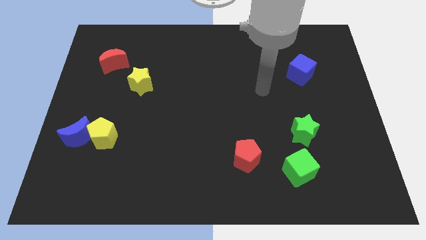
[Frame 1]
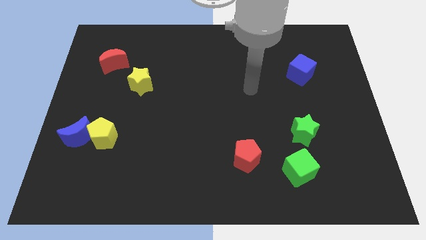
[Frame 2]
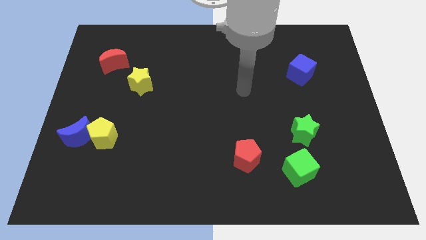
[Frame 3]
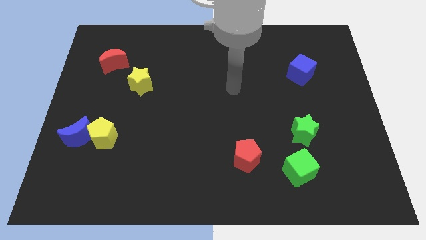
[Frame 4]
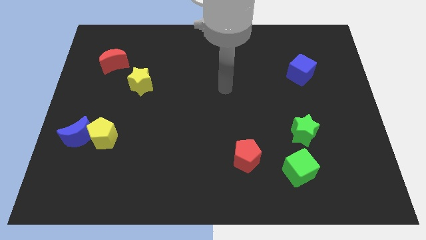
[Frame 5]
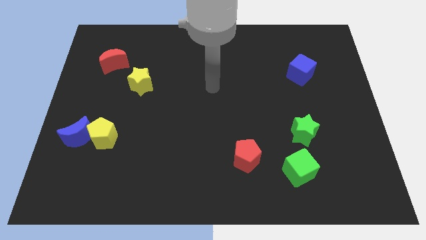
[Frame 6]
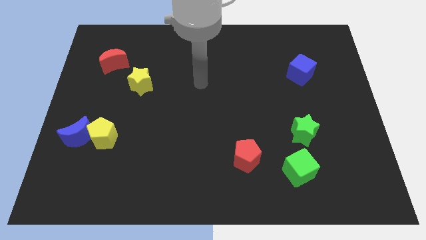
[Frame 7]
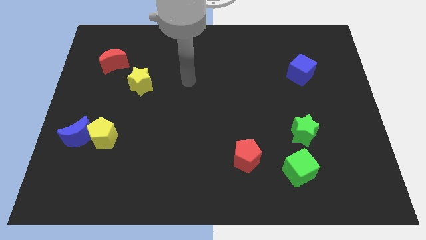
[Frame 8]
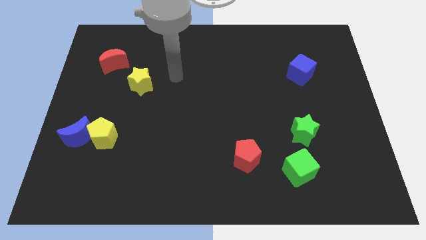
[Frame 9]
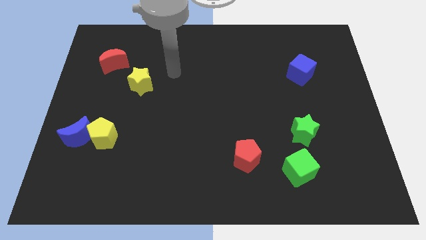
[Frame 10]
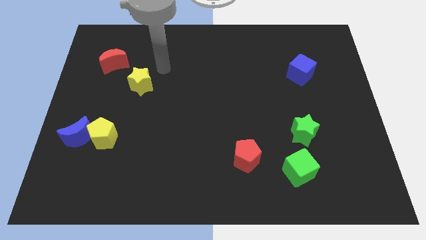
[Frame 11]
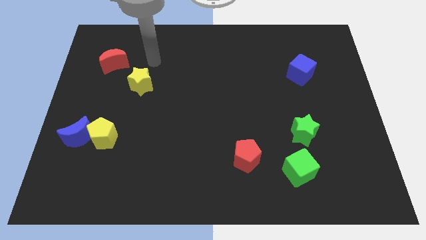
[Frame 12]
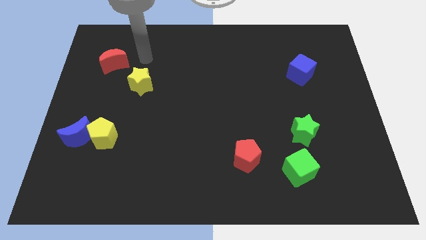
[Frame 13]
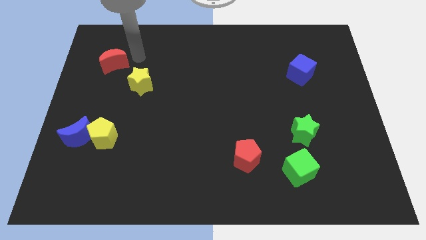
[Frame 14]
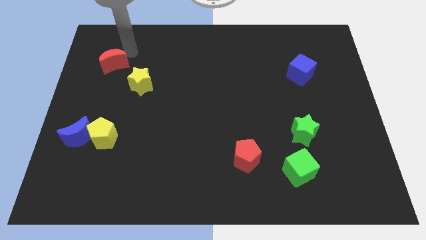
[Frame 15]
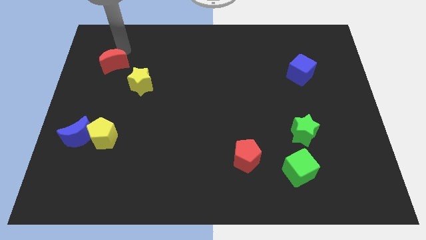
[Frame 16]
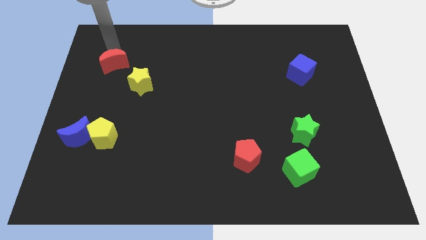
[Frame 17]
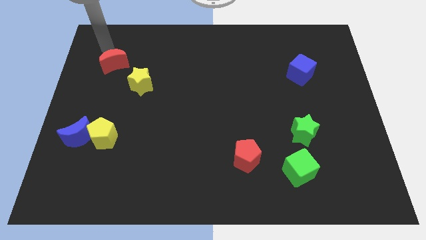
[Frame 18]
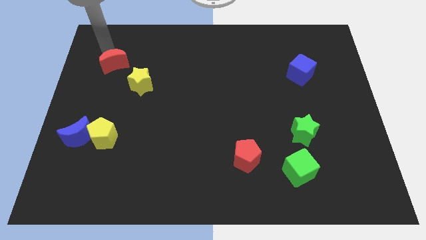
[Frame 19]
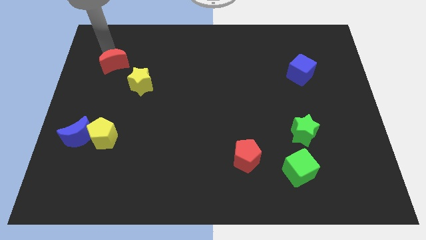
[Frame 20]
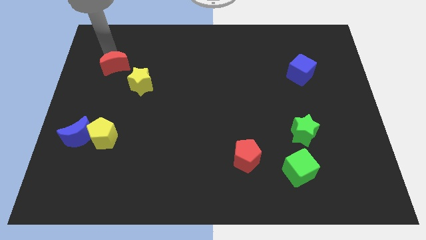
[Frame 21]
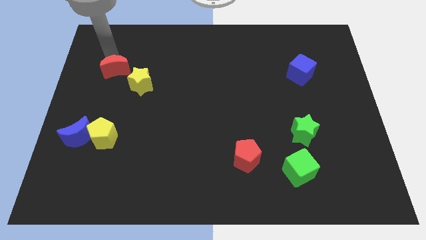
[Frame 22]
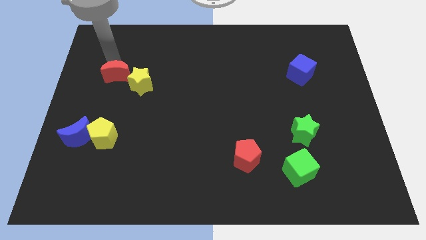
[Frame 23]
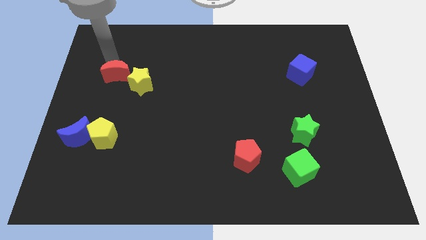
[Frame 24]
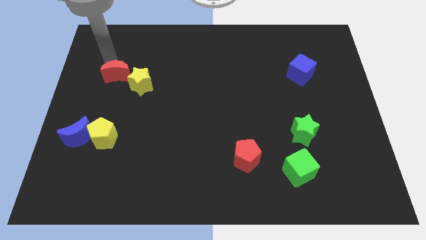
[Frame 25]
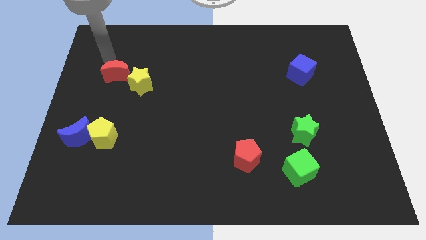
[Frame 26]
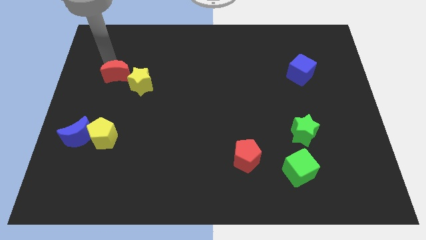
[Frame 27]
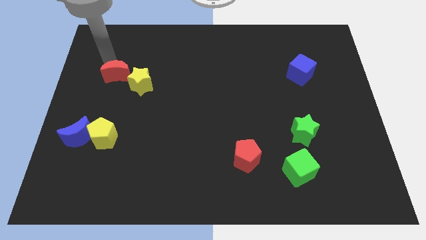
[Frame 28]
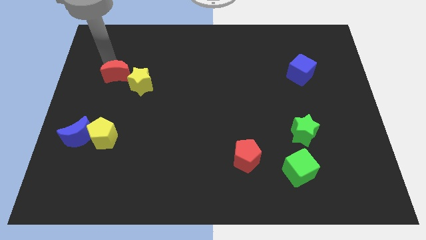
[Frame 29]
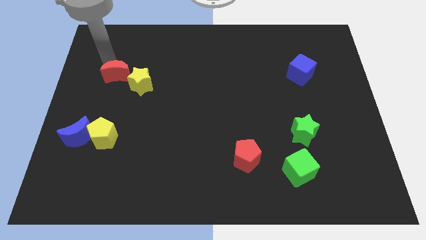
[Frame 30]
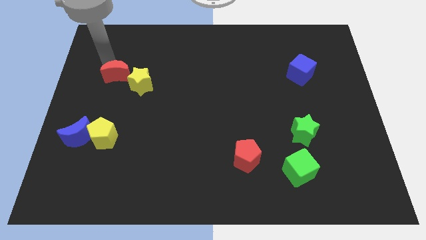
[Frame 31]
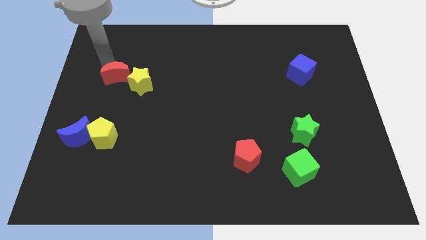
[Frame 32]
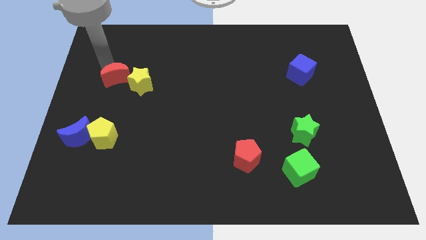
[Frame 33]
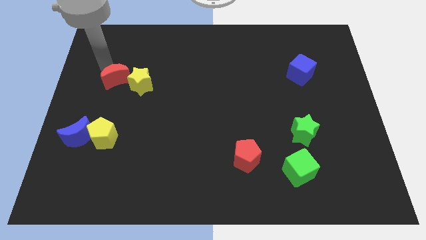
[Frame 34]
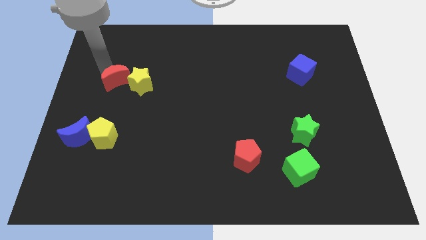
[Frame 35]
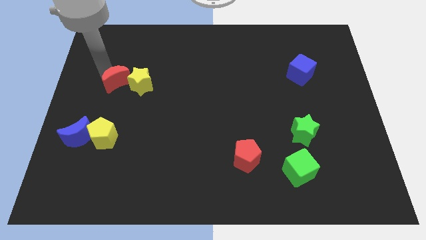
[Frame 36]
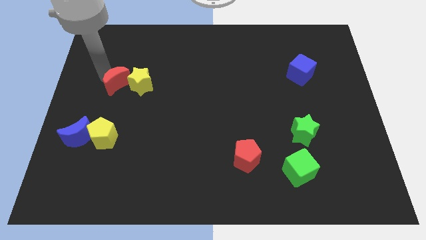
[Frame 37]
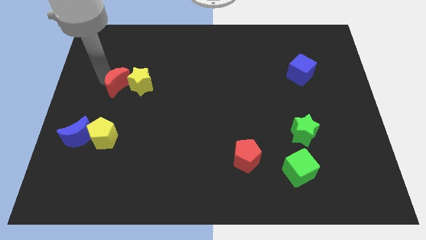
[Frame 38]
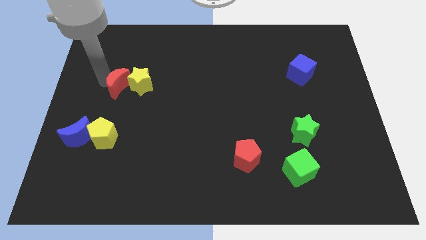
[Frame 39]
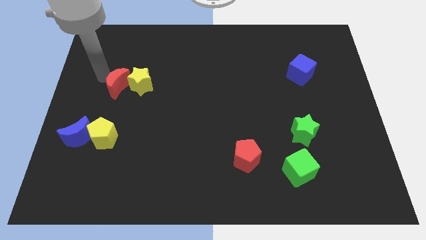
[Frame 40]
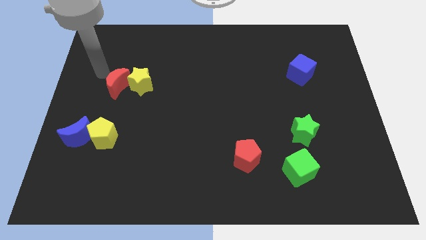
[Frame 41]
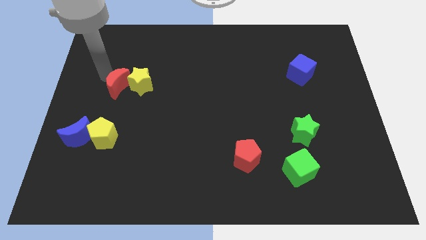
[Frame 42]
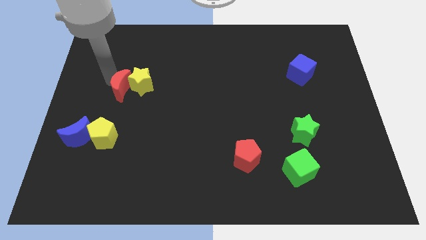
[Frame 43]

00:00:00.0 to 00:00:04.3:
slightly move the red moon downwards and to the right

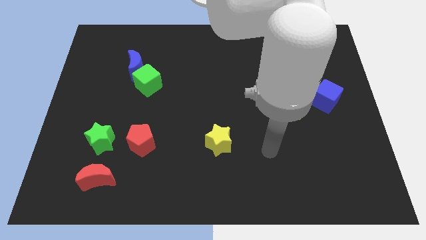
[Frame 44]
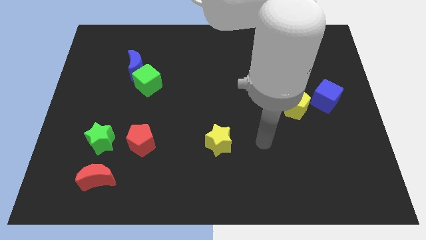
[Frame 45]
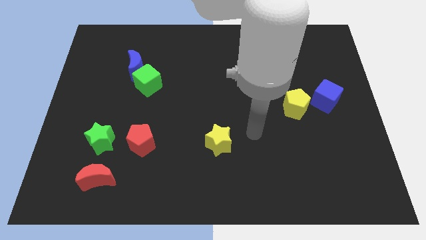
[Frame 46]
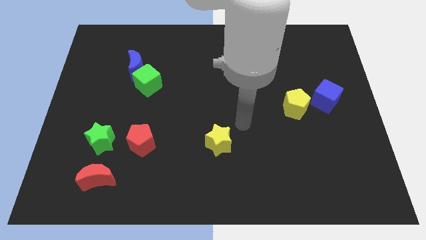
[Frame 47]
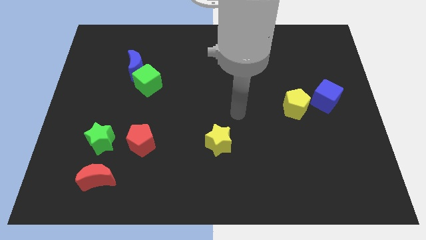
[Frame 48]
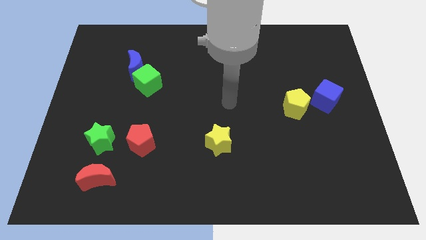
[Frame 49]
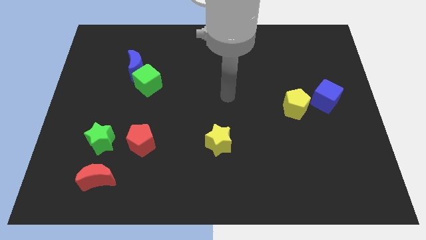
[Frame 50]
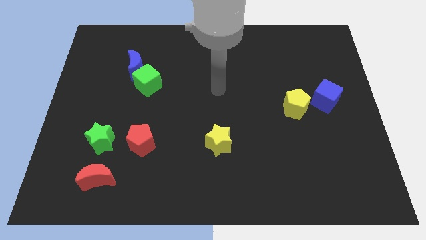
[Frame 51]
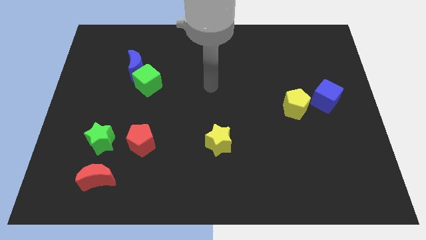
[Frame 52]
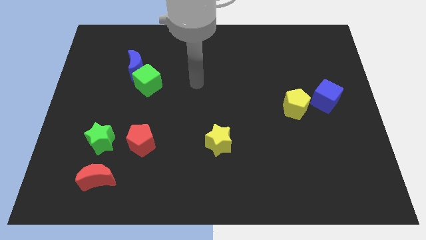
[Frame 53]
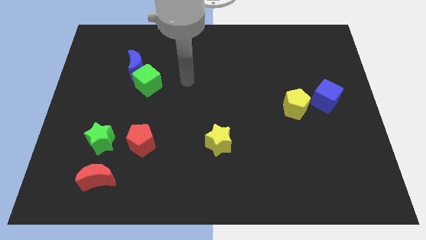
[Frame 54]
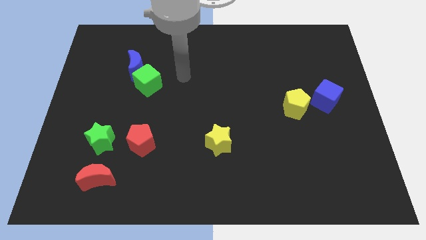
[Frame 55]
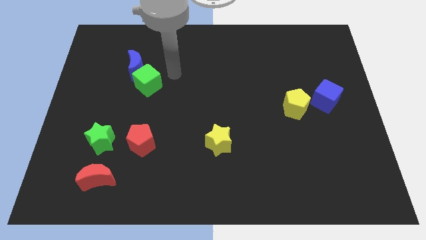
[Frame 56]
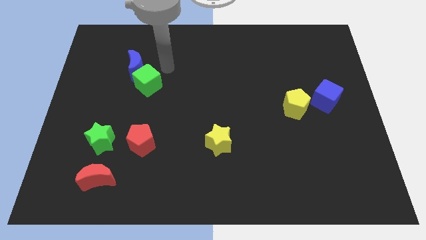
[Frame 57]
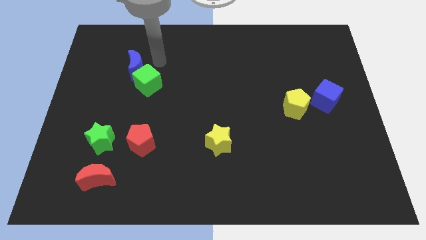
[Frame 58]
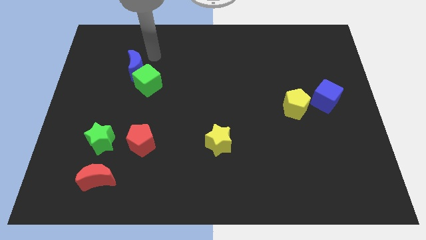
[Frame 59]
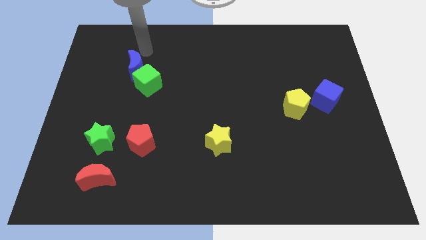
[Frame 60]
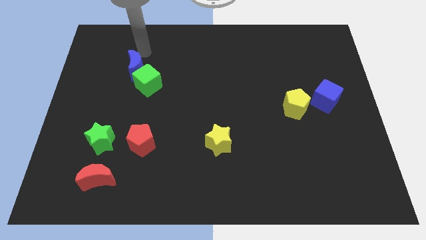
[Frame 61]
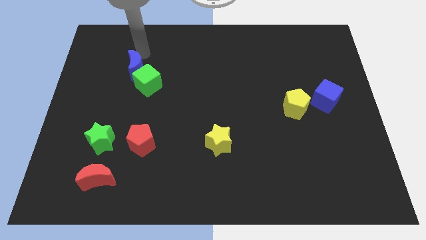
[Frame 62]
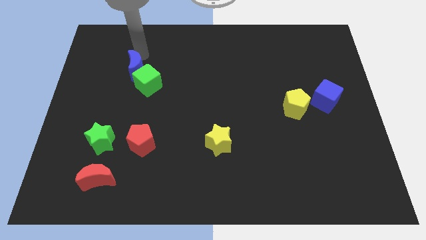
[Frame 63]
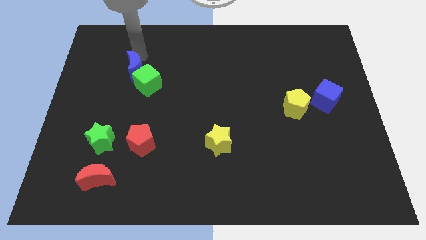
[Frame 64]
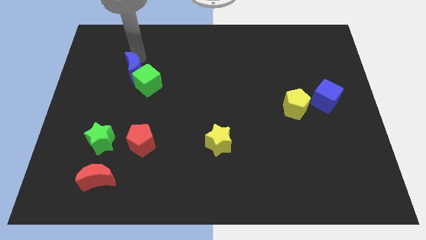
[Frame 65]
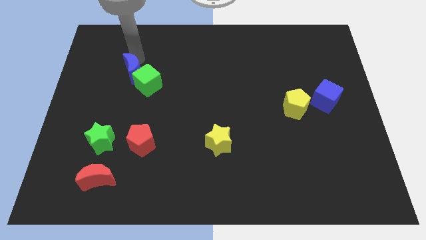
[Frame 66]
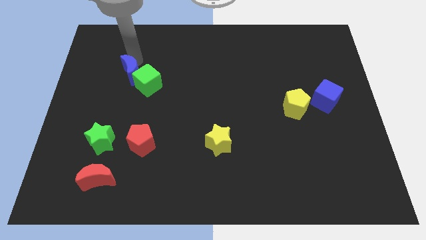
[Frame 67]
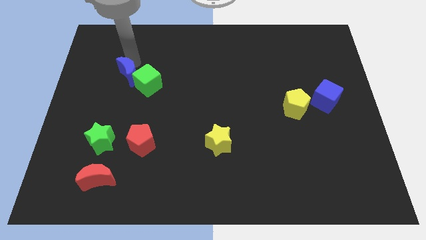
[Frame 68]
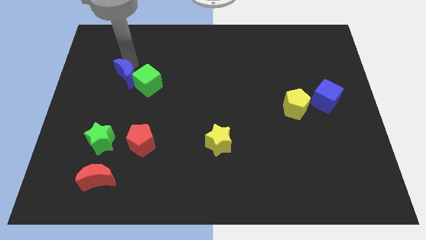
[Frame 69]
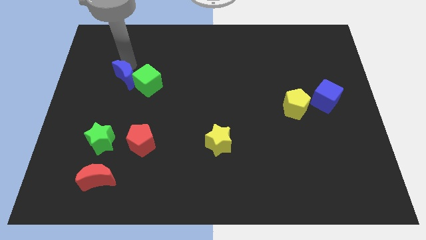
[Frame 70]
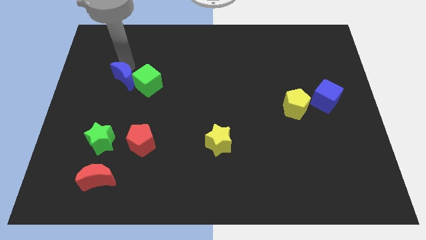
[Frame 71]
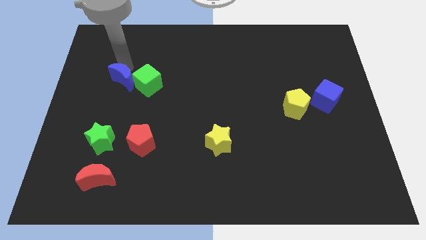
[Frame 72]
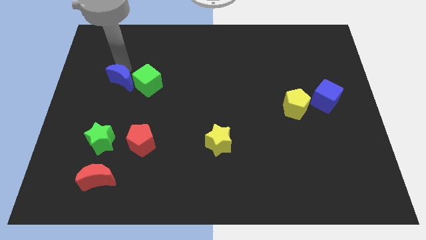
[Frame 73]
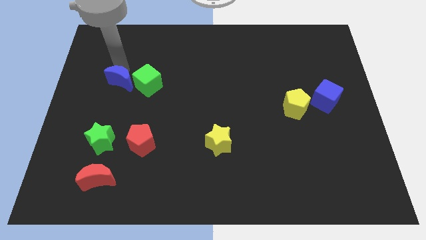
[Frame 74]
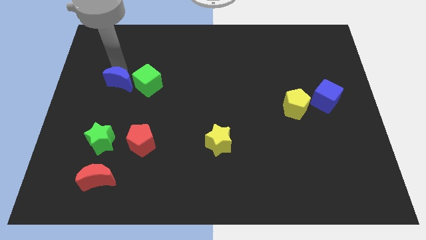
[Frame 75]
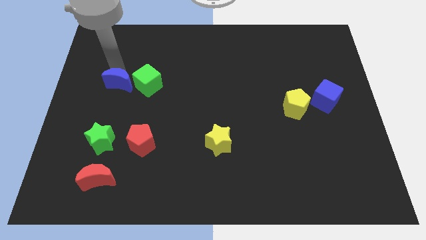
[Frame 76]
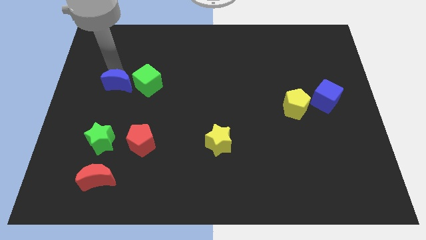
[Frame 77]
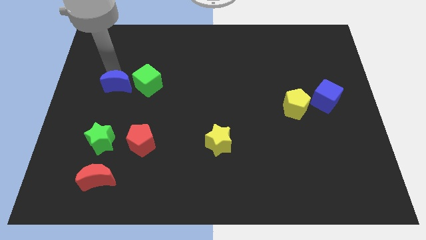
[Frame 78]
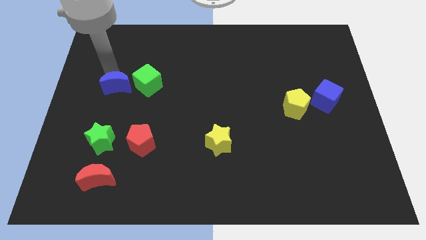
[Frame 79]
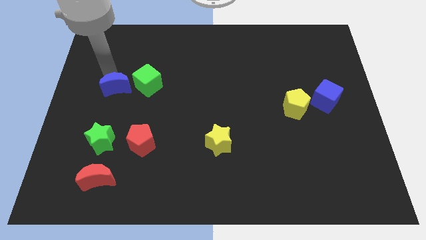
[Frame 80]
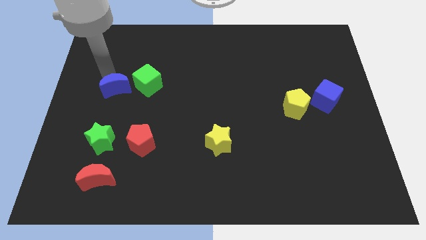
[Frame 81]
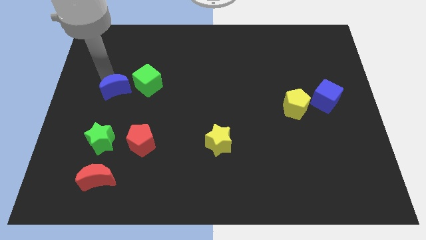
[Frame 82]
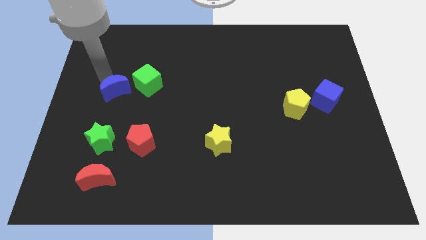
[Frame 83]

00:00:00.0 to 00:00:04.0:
slightly move the blue moon downwards
